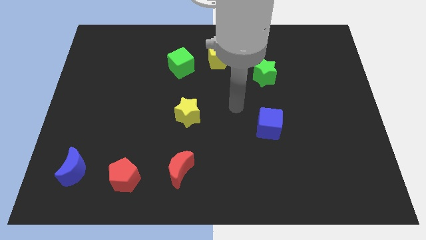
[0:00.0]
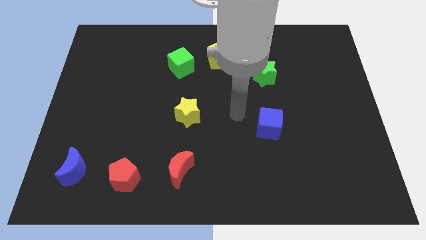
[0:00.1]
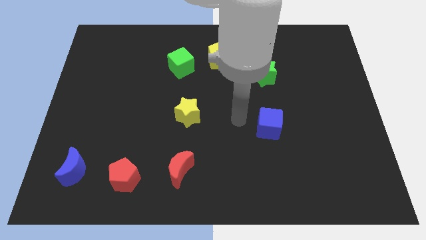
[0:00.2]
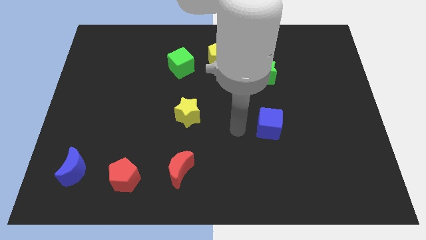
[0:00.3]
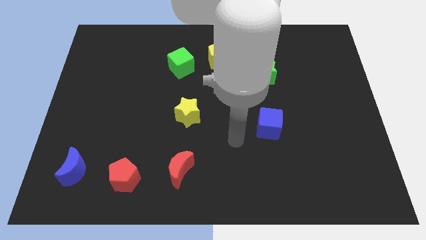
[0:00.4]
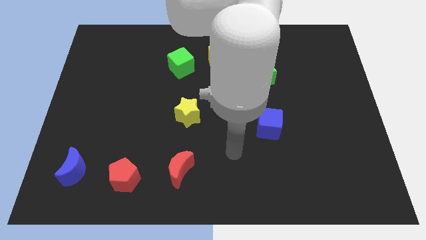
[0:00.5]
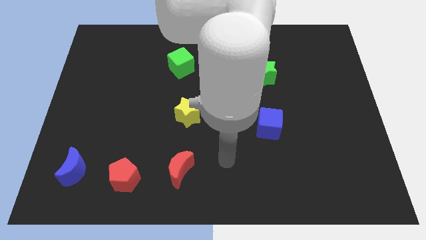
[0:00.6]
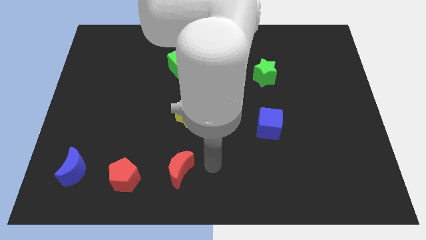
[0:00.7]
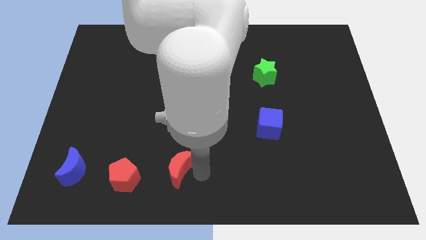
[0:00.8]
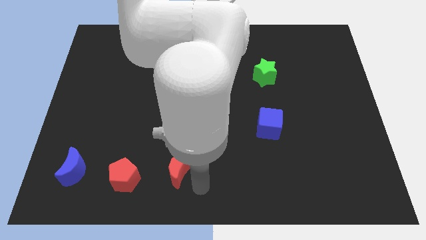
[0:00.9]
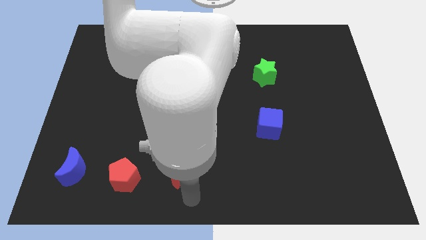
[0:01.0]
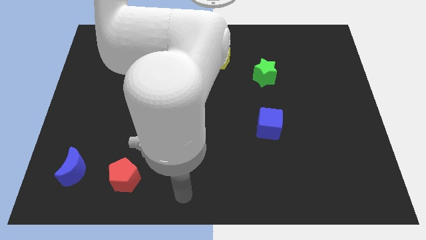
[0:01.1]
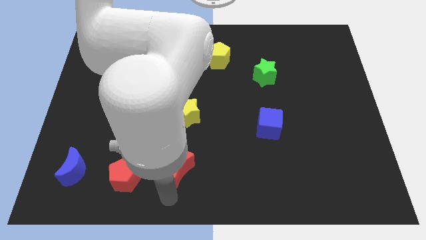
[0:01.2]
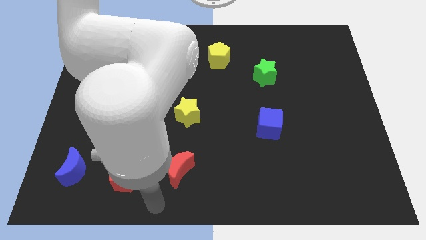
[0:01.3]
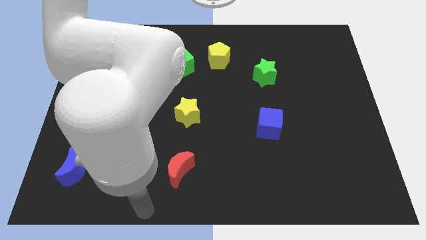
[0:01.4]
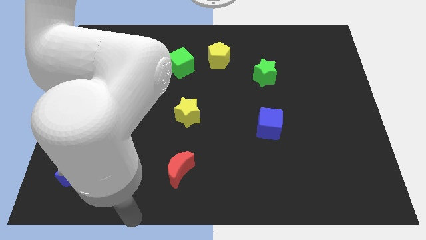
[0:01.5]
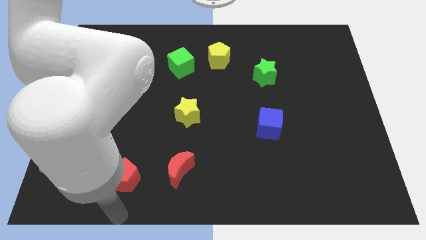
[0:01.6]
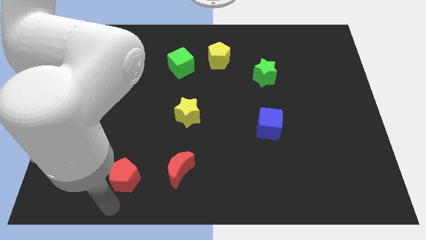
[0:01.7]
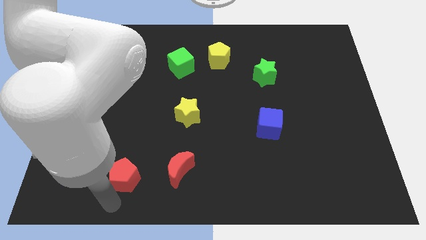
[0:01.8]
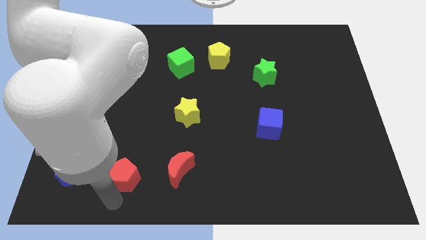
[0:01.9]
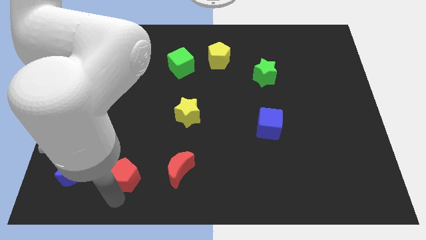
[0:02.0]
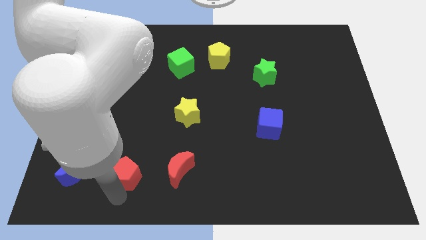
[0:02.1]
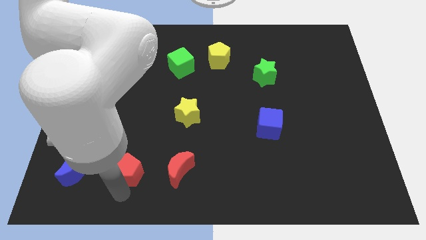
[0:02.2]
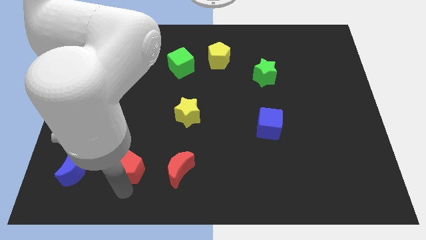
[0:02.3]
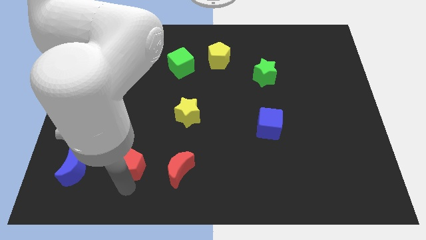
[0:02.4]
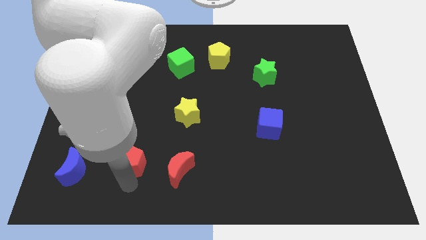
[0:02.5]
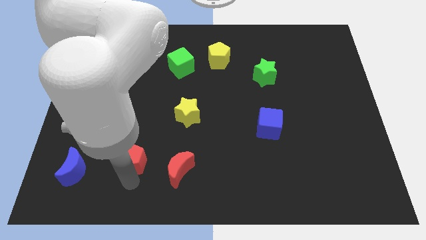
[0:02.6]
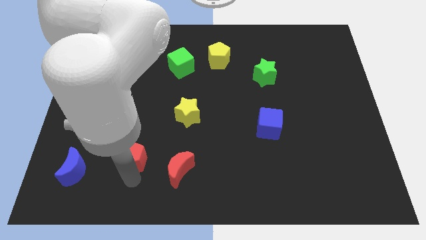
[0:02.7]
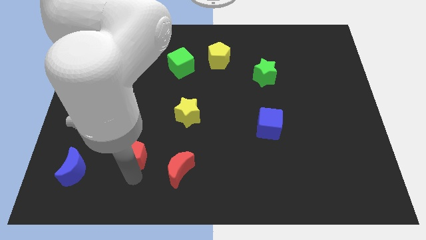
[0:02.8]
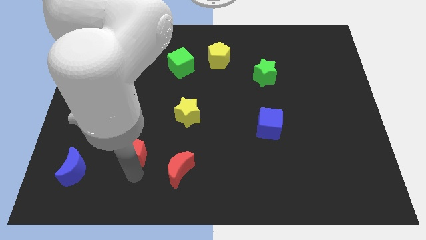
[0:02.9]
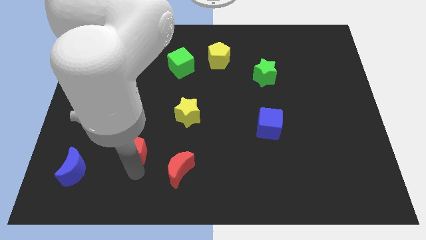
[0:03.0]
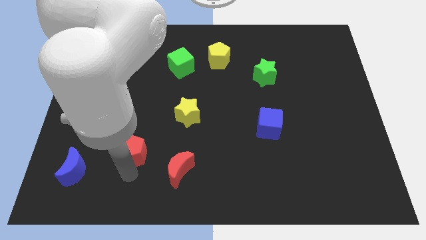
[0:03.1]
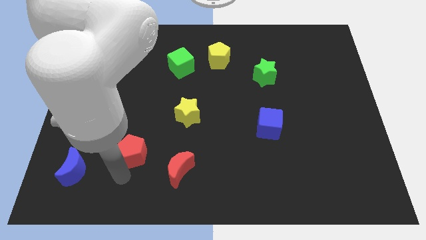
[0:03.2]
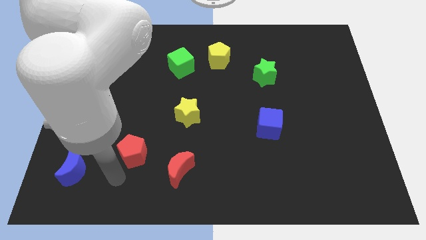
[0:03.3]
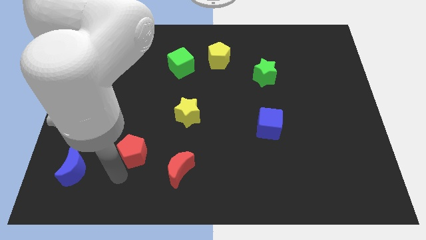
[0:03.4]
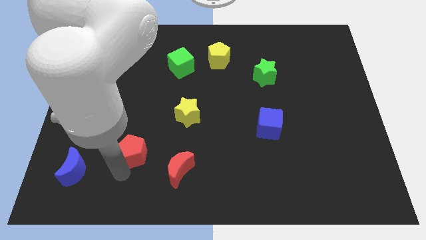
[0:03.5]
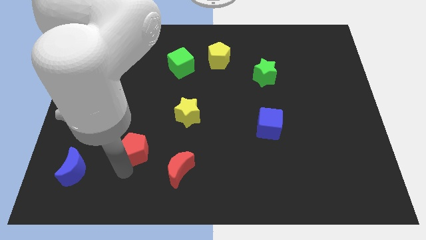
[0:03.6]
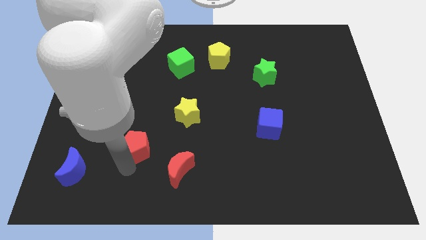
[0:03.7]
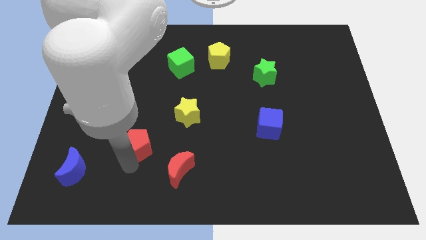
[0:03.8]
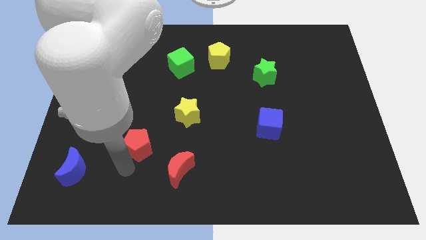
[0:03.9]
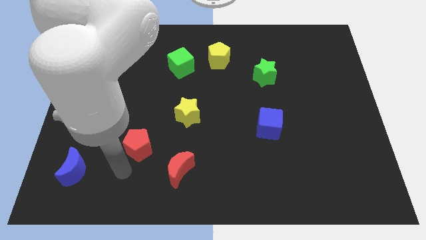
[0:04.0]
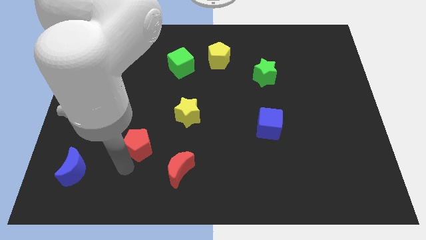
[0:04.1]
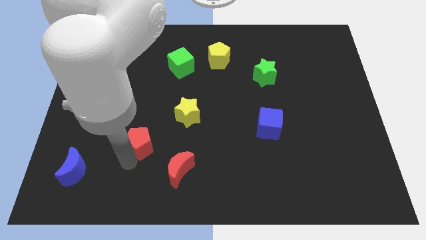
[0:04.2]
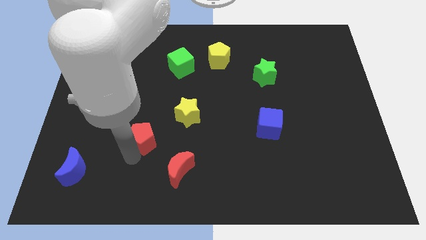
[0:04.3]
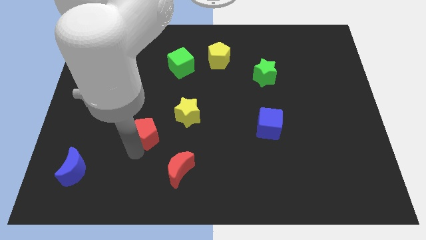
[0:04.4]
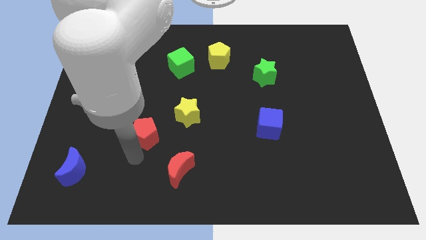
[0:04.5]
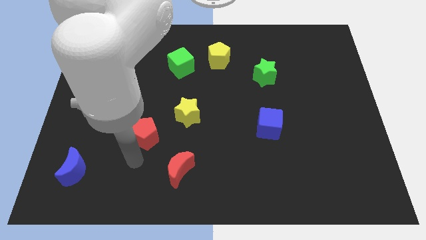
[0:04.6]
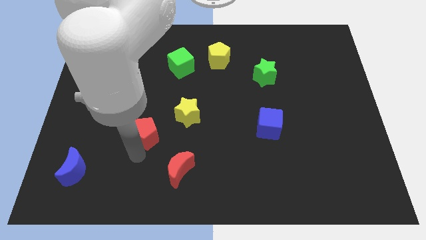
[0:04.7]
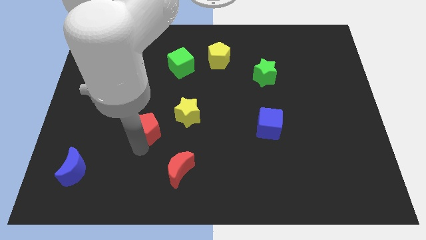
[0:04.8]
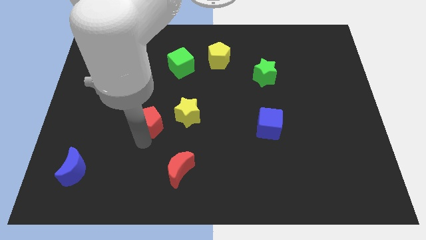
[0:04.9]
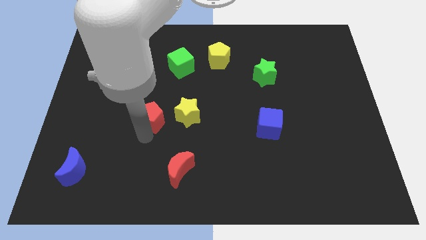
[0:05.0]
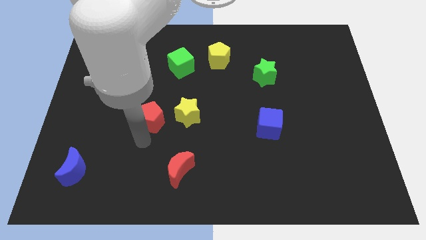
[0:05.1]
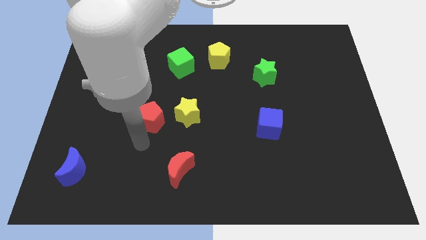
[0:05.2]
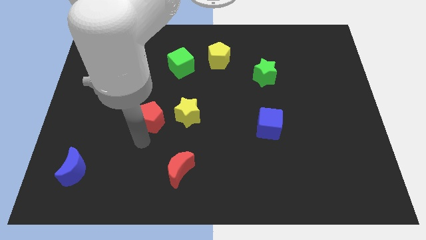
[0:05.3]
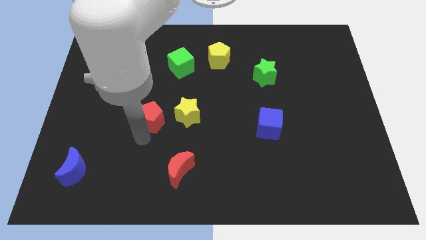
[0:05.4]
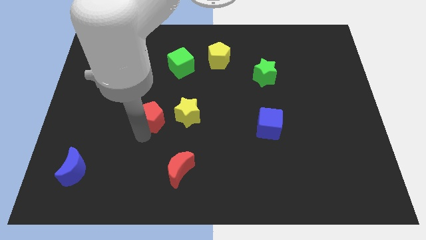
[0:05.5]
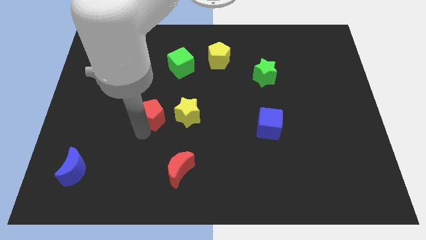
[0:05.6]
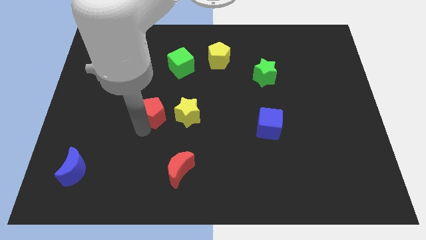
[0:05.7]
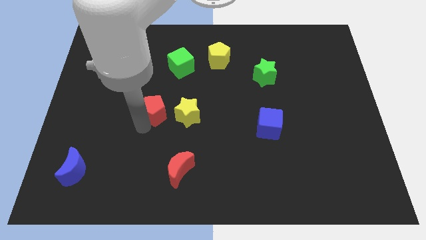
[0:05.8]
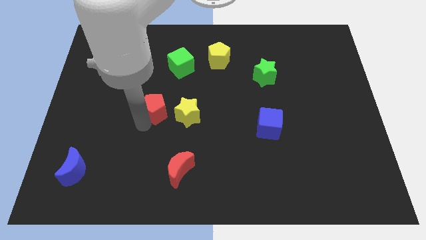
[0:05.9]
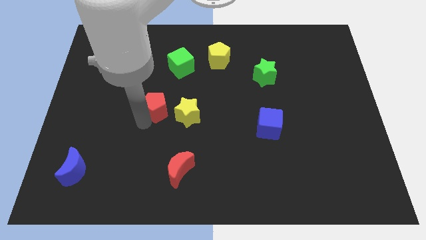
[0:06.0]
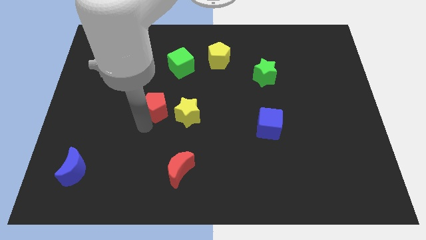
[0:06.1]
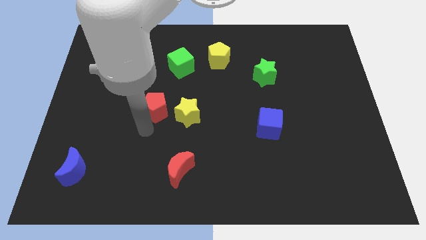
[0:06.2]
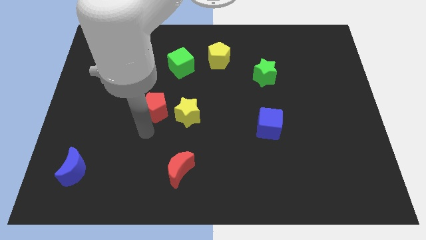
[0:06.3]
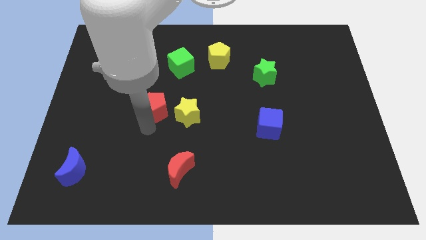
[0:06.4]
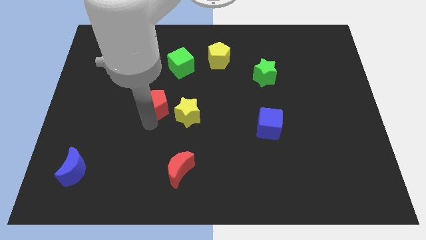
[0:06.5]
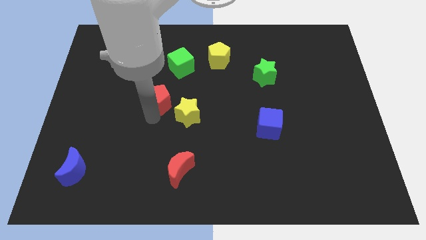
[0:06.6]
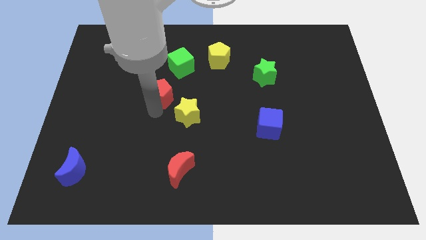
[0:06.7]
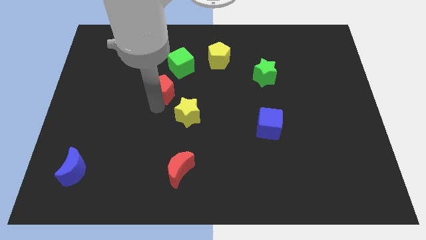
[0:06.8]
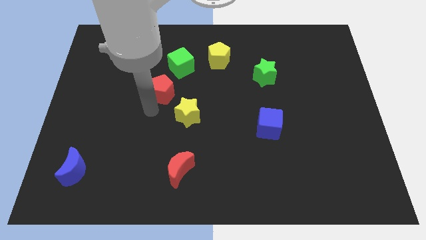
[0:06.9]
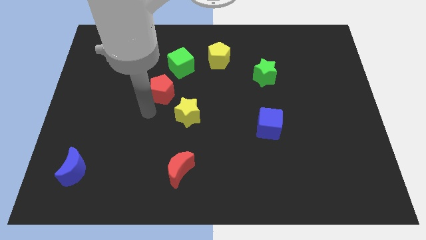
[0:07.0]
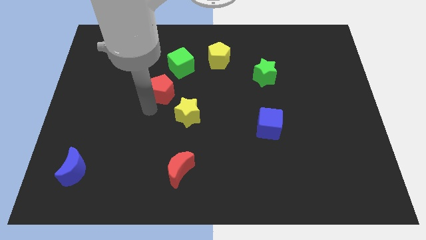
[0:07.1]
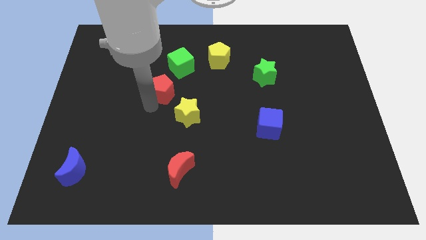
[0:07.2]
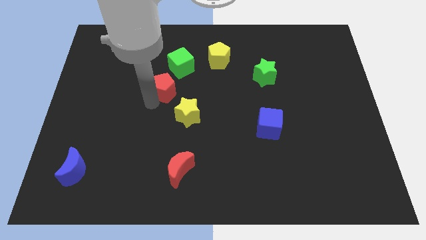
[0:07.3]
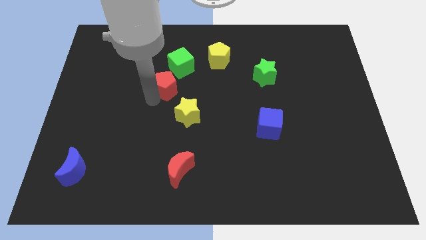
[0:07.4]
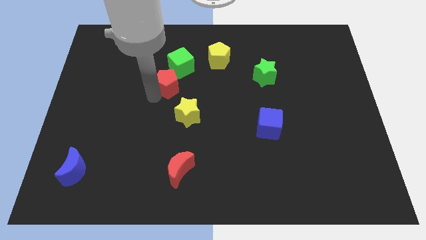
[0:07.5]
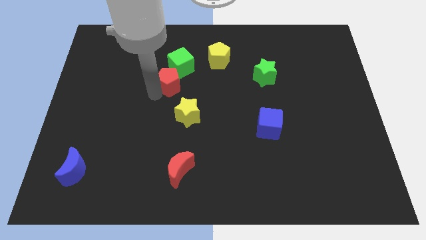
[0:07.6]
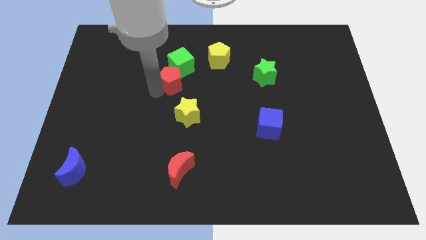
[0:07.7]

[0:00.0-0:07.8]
push the red pentagon close to the green cube

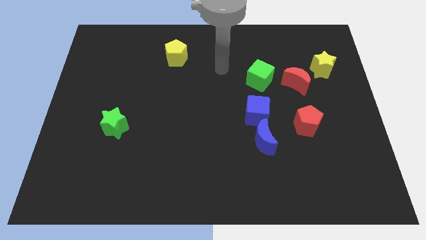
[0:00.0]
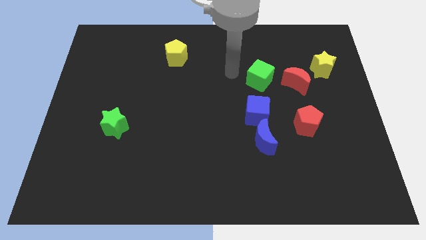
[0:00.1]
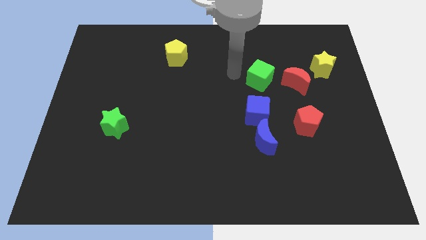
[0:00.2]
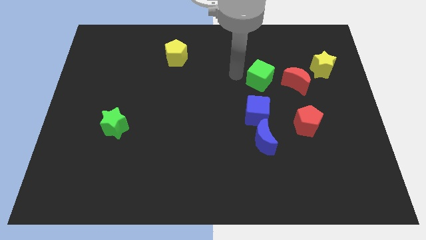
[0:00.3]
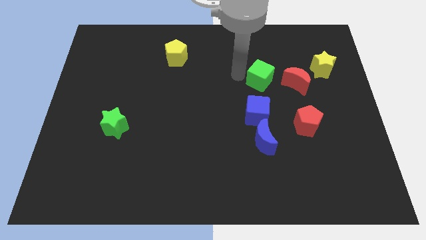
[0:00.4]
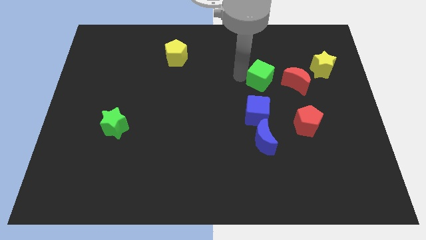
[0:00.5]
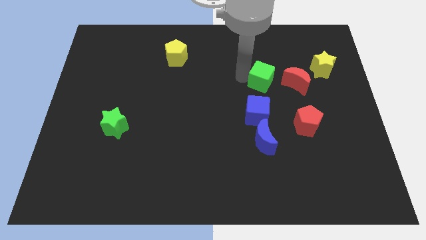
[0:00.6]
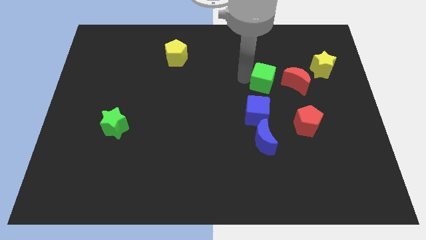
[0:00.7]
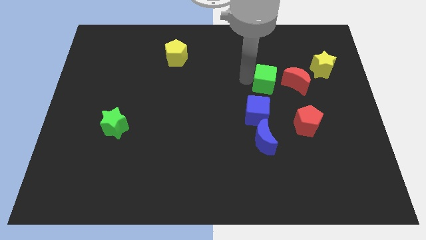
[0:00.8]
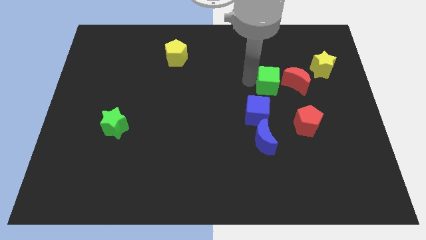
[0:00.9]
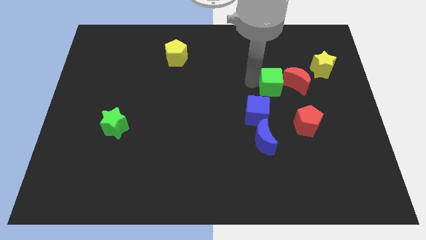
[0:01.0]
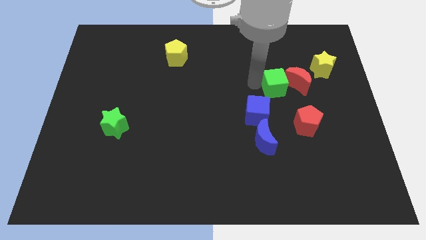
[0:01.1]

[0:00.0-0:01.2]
put the green cube to the red moon
